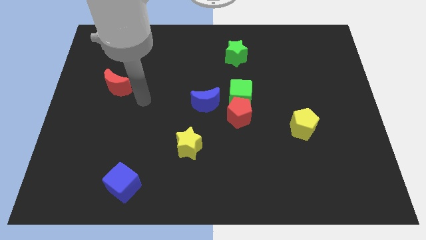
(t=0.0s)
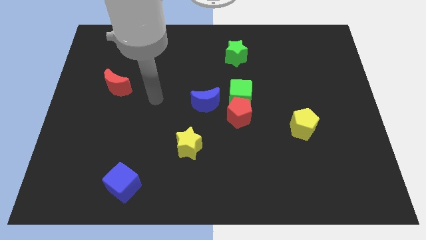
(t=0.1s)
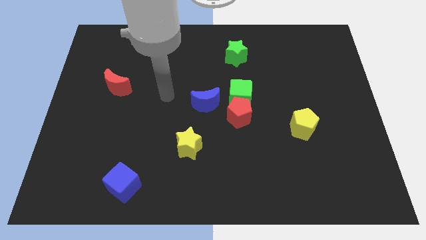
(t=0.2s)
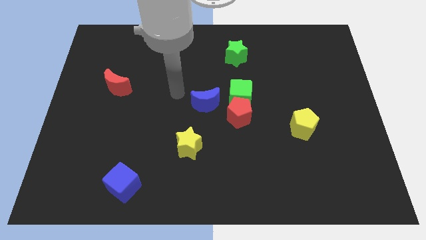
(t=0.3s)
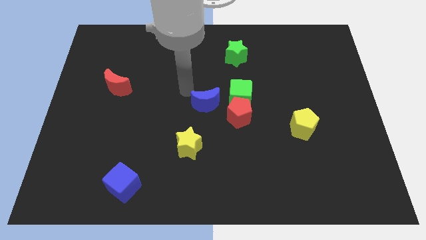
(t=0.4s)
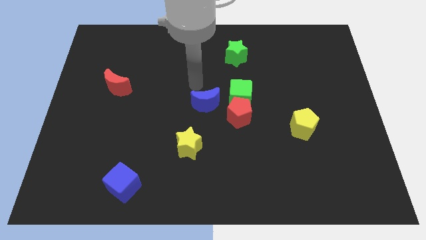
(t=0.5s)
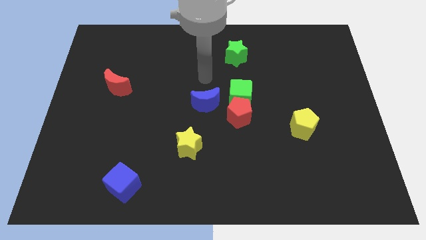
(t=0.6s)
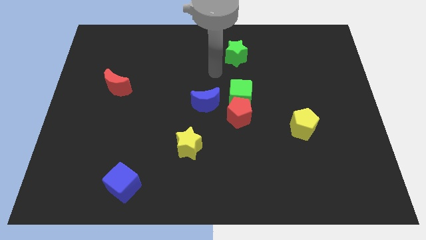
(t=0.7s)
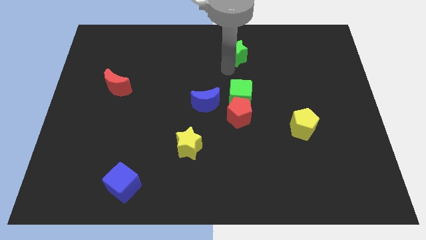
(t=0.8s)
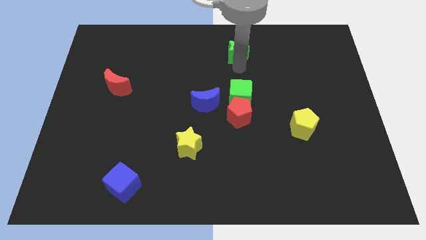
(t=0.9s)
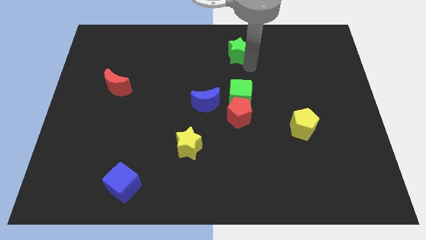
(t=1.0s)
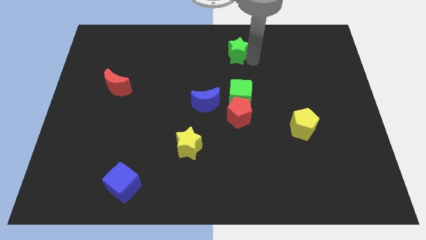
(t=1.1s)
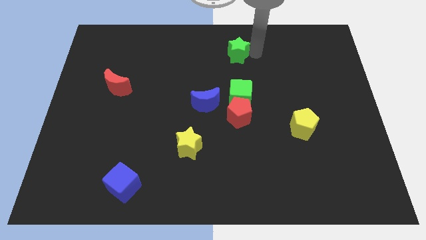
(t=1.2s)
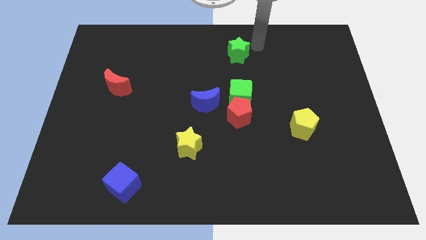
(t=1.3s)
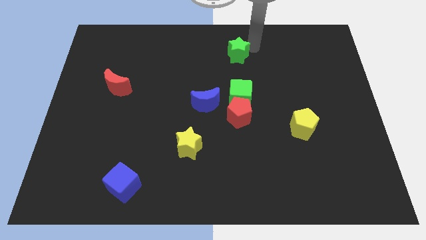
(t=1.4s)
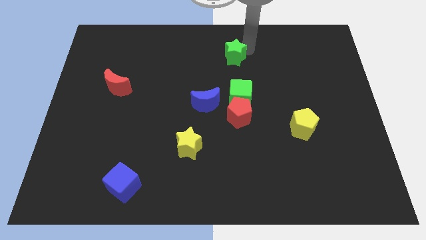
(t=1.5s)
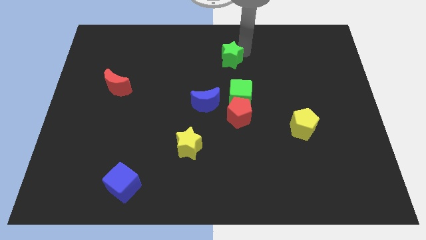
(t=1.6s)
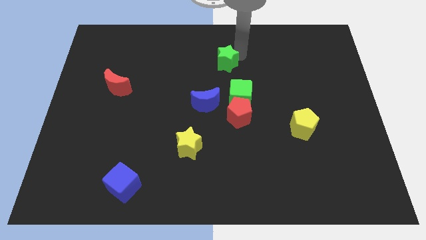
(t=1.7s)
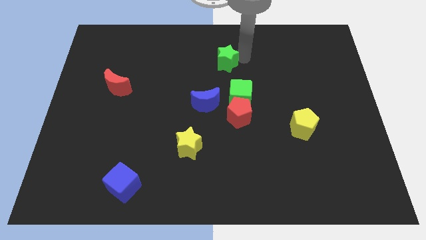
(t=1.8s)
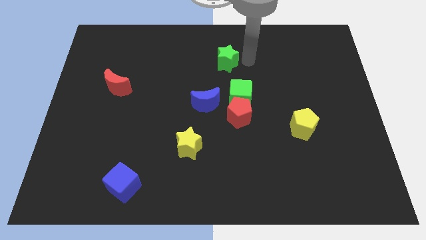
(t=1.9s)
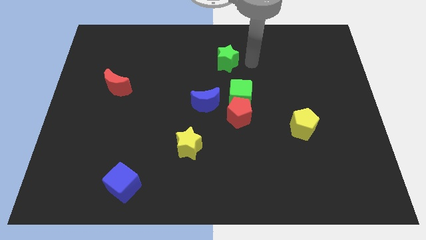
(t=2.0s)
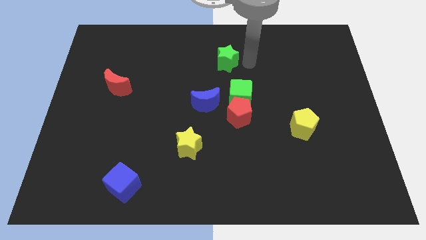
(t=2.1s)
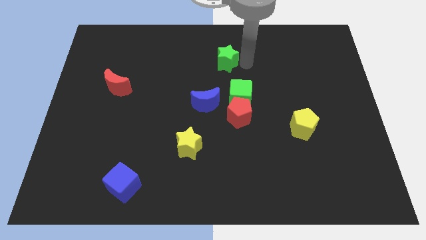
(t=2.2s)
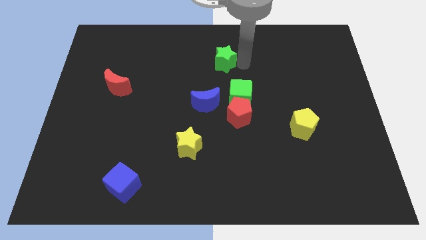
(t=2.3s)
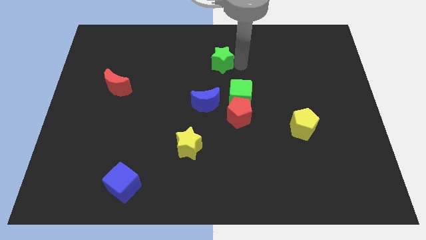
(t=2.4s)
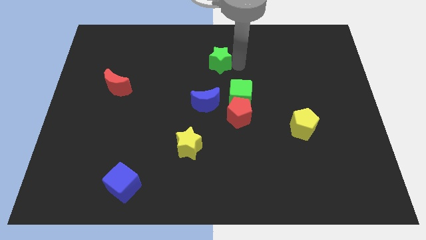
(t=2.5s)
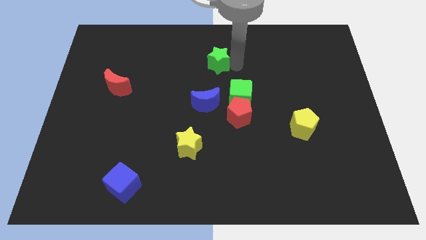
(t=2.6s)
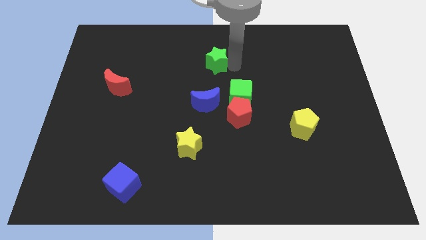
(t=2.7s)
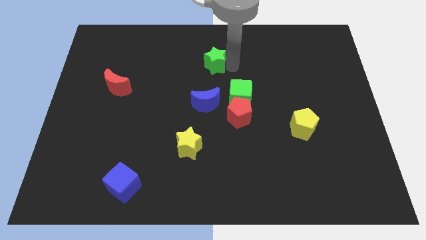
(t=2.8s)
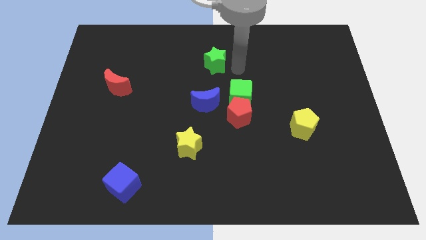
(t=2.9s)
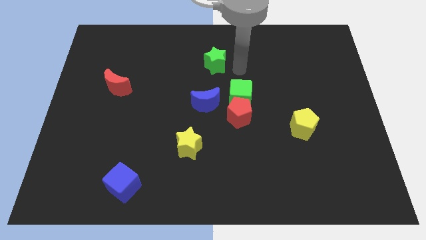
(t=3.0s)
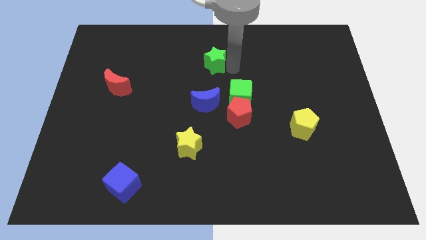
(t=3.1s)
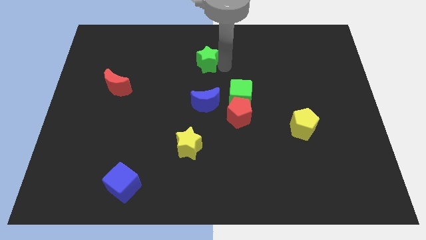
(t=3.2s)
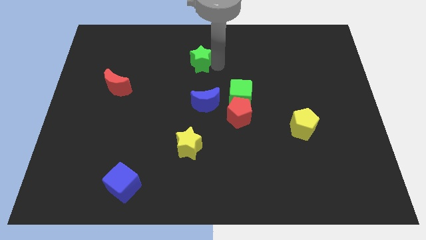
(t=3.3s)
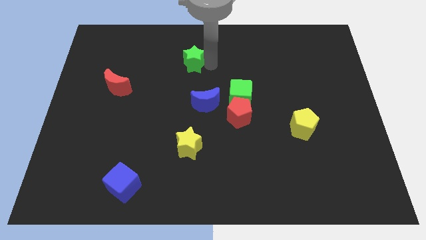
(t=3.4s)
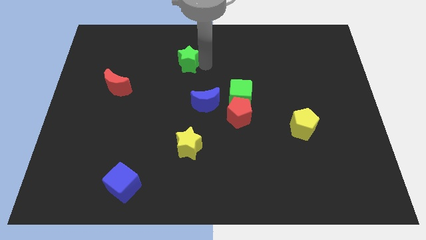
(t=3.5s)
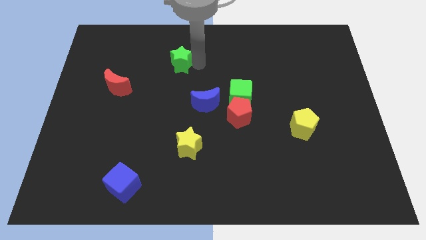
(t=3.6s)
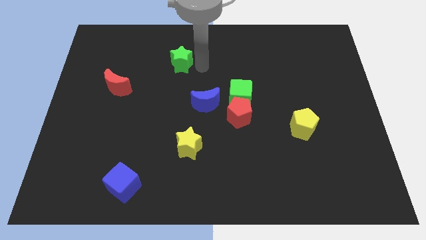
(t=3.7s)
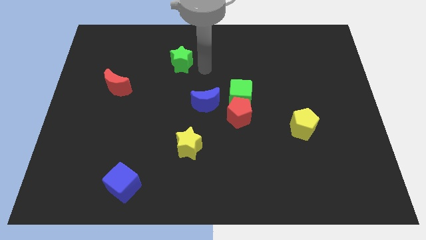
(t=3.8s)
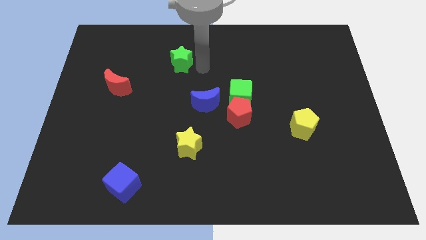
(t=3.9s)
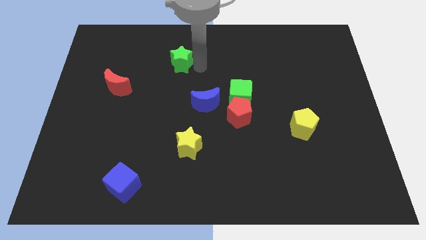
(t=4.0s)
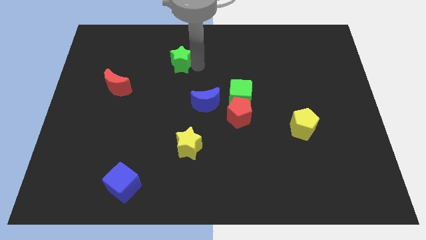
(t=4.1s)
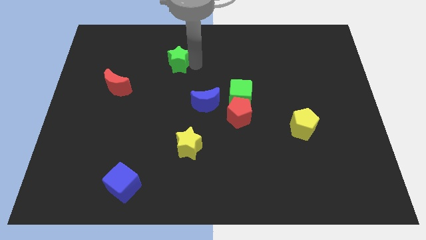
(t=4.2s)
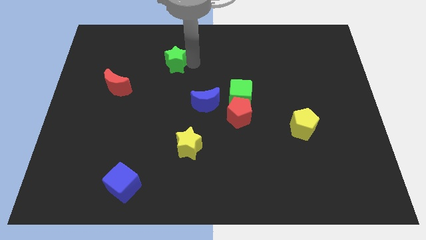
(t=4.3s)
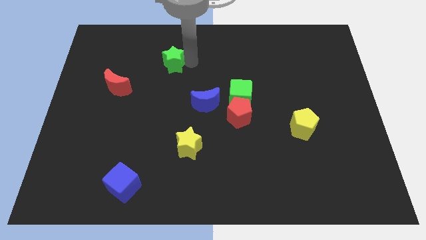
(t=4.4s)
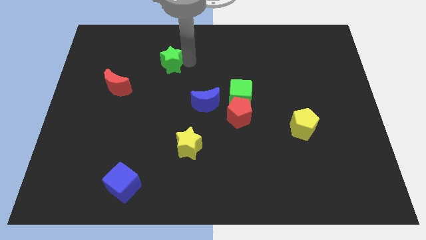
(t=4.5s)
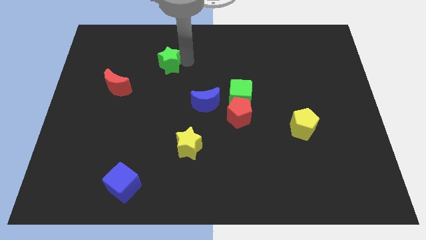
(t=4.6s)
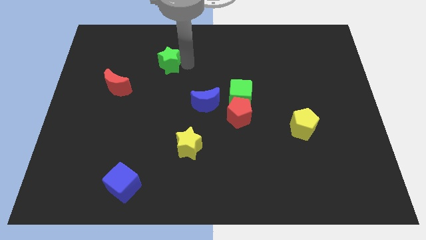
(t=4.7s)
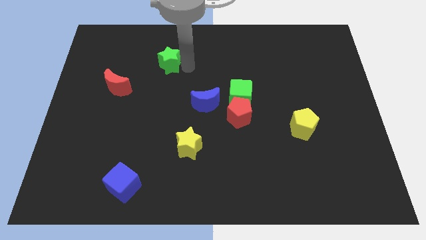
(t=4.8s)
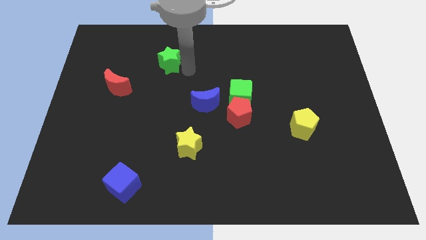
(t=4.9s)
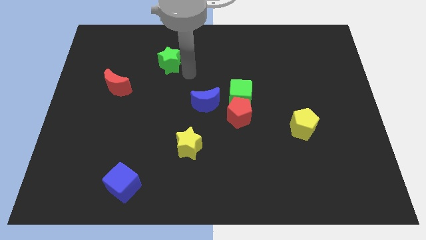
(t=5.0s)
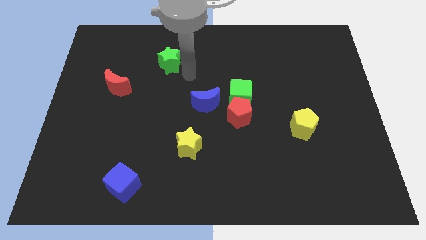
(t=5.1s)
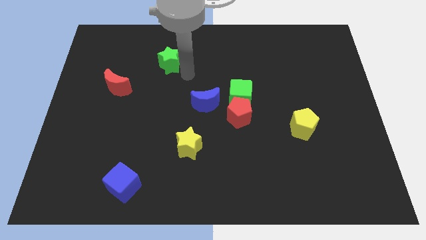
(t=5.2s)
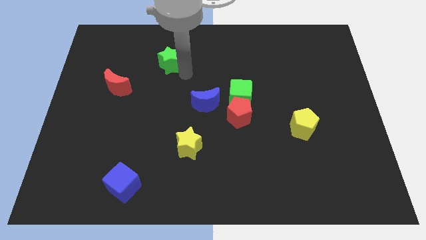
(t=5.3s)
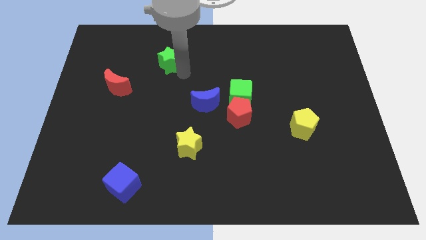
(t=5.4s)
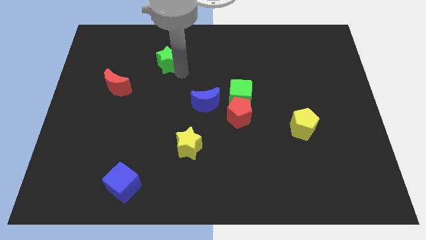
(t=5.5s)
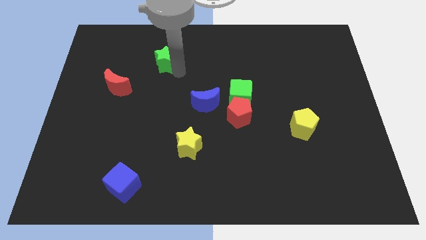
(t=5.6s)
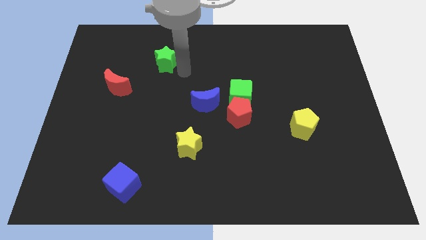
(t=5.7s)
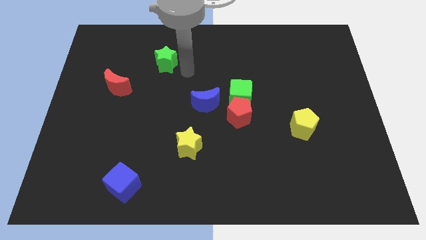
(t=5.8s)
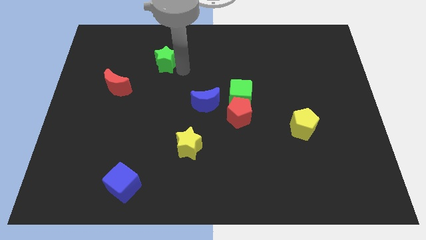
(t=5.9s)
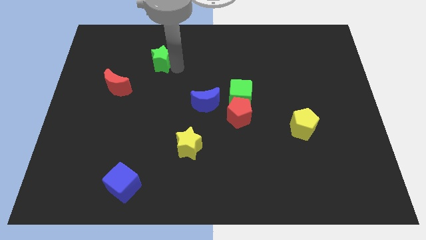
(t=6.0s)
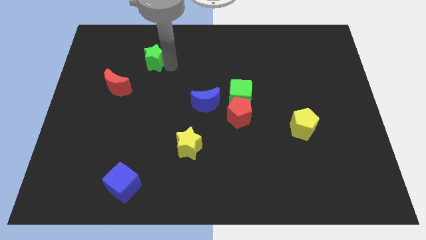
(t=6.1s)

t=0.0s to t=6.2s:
move the green star to the left

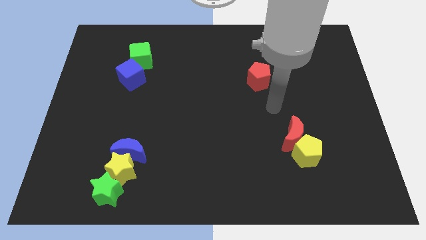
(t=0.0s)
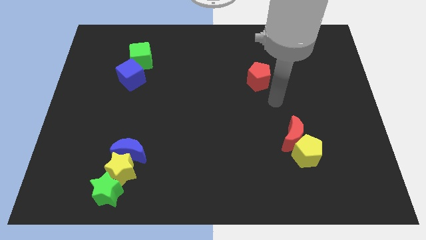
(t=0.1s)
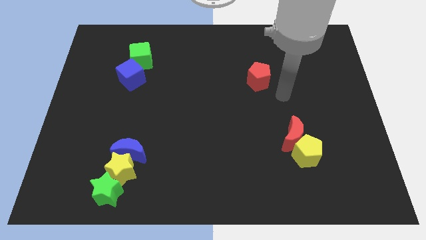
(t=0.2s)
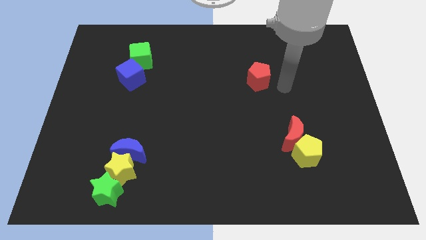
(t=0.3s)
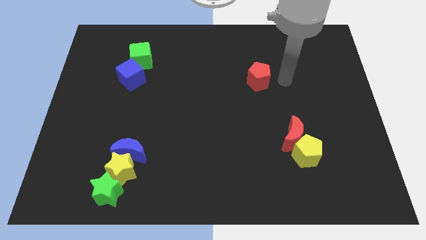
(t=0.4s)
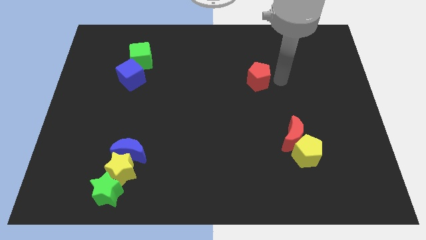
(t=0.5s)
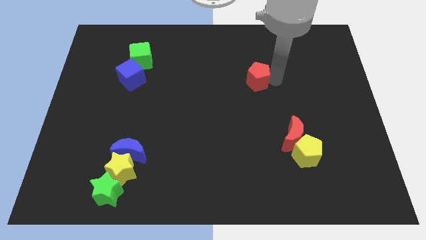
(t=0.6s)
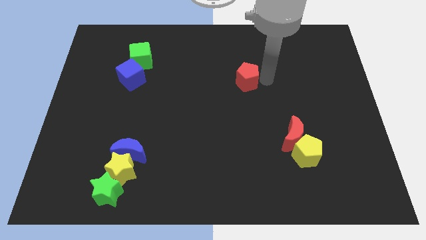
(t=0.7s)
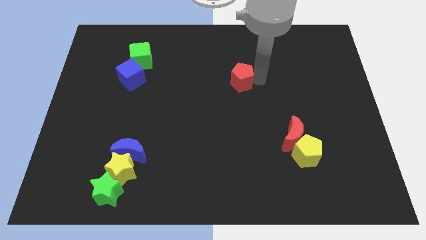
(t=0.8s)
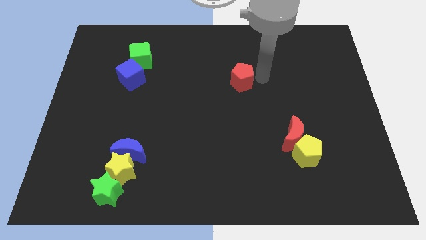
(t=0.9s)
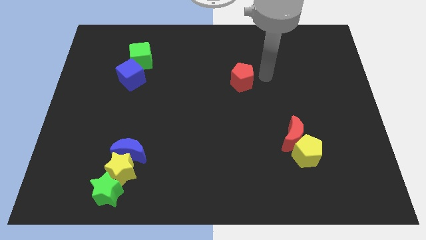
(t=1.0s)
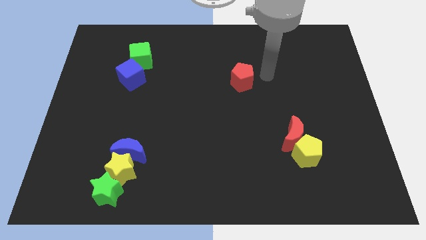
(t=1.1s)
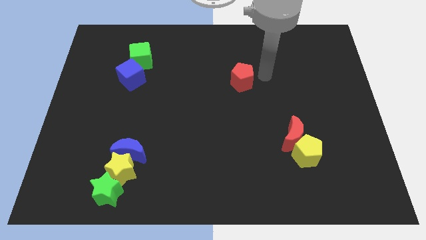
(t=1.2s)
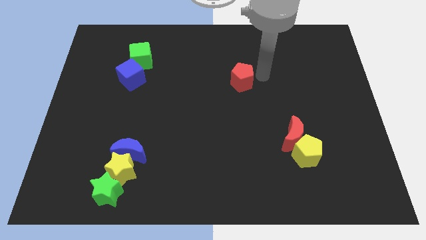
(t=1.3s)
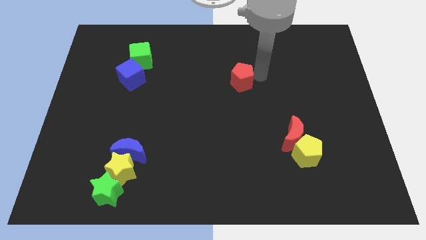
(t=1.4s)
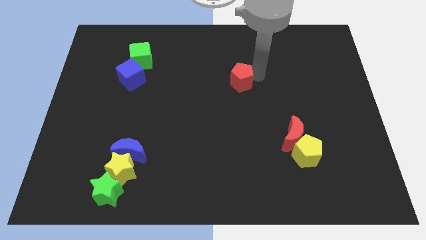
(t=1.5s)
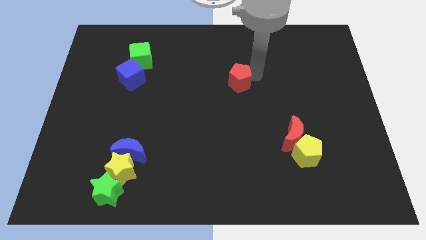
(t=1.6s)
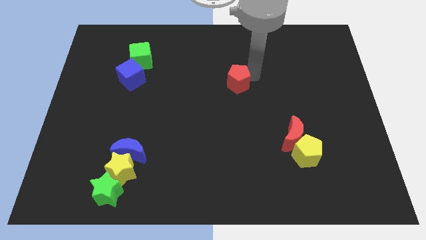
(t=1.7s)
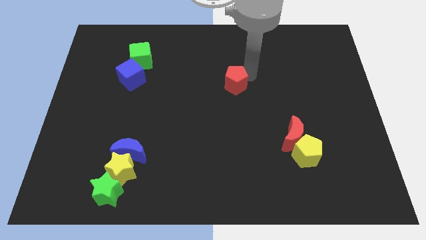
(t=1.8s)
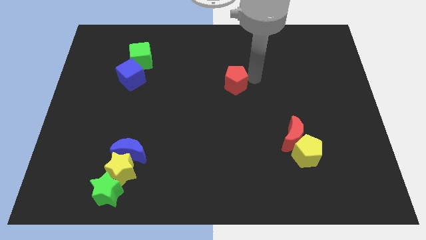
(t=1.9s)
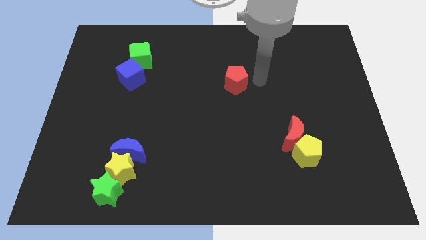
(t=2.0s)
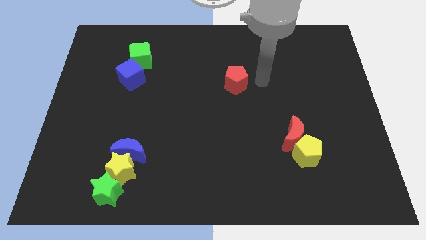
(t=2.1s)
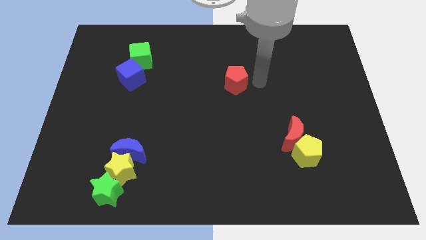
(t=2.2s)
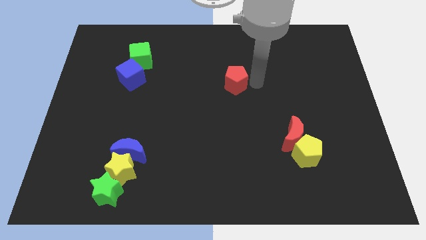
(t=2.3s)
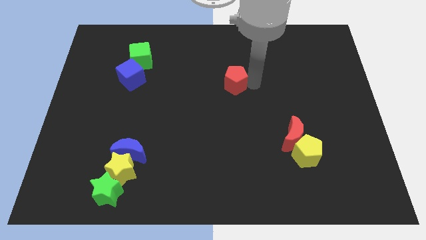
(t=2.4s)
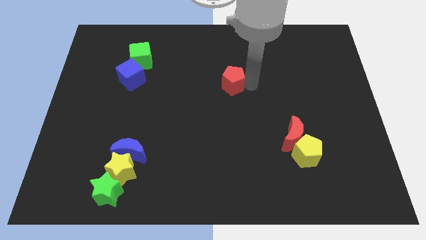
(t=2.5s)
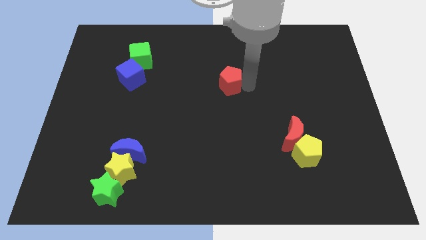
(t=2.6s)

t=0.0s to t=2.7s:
slightly slide the red pentagon left
